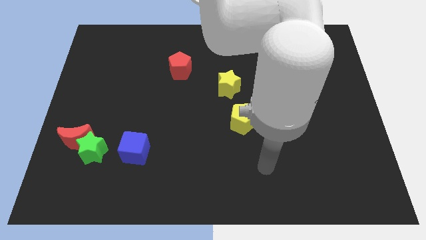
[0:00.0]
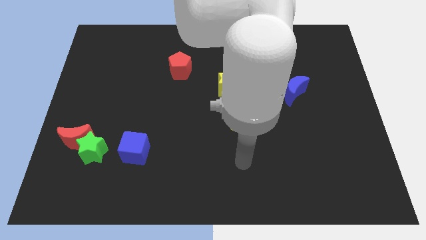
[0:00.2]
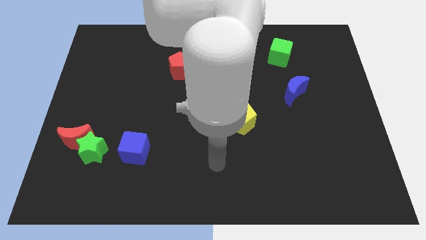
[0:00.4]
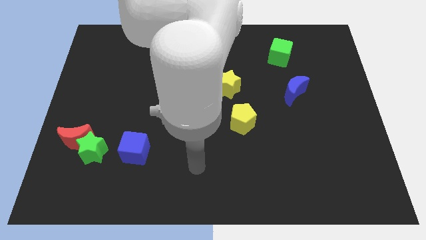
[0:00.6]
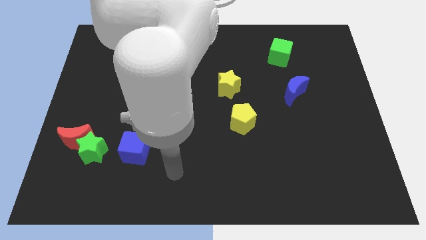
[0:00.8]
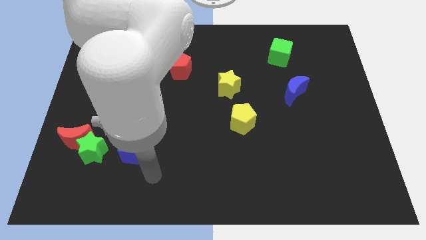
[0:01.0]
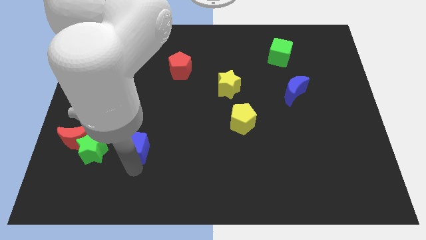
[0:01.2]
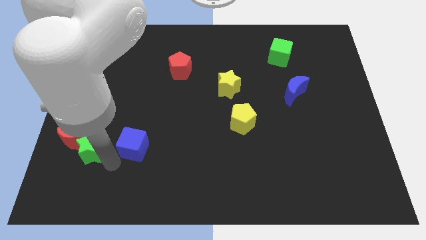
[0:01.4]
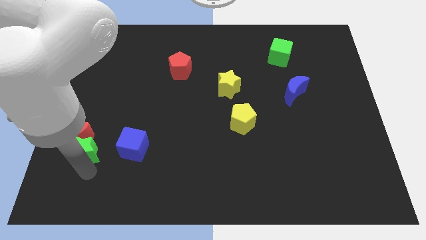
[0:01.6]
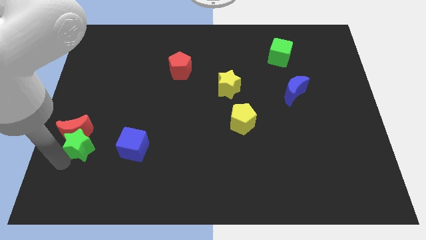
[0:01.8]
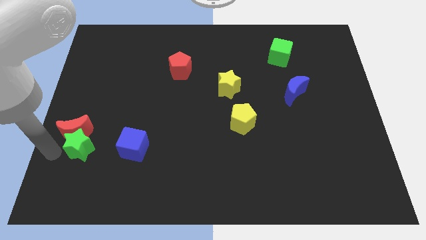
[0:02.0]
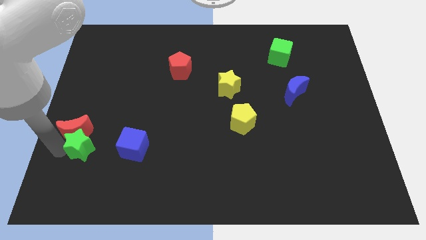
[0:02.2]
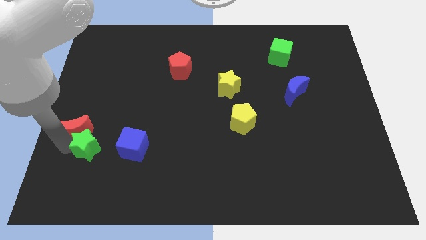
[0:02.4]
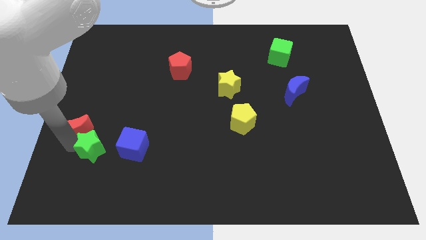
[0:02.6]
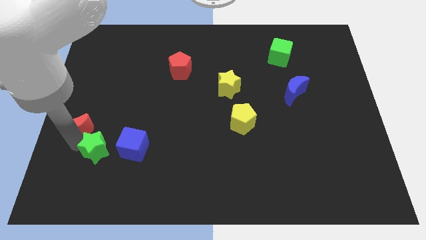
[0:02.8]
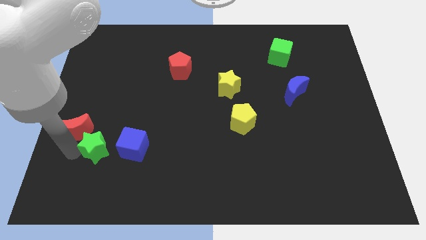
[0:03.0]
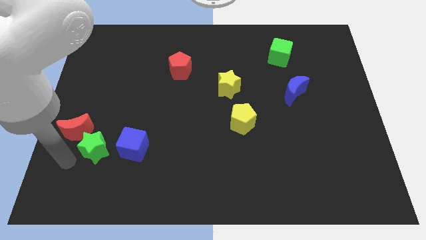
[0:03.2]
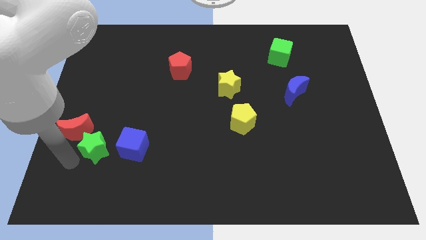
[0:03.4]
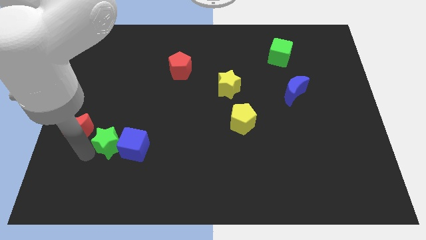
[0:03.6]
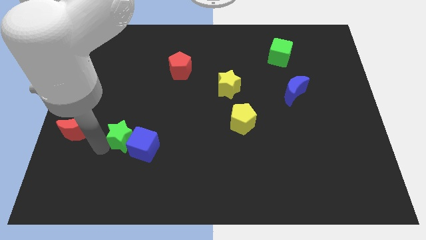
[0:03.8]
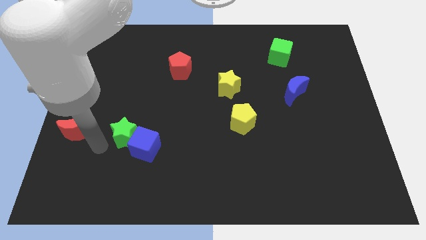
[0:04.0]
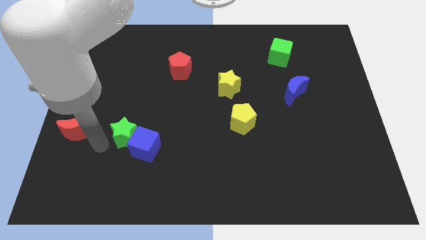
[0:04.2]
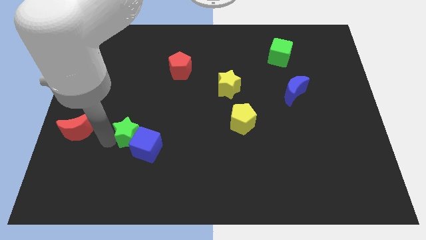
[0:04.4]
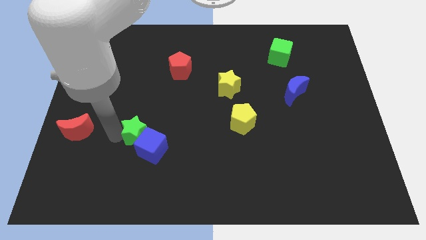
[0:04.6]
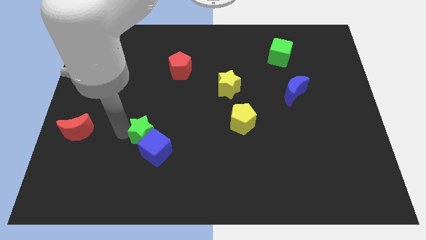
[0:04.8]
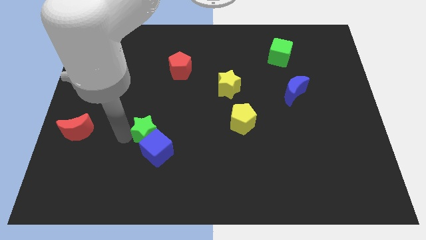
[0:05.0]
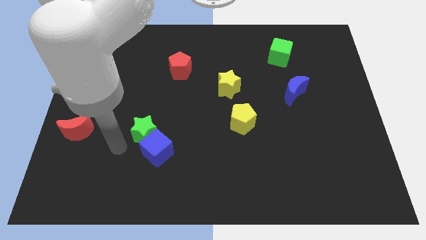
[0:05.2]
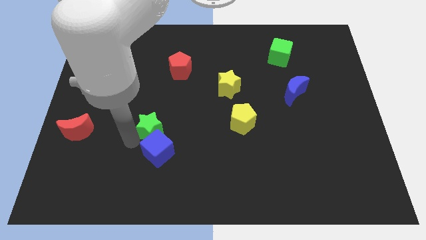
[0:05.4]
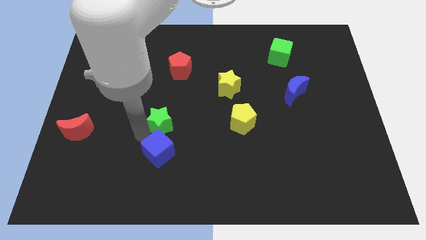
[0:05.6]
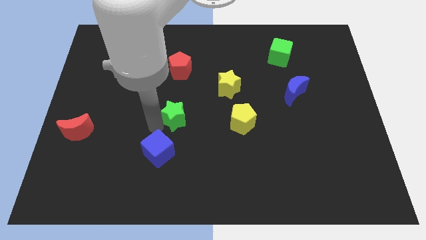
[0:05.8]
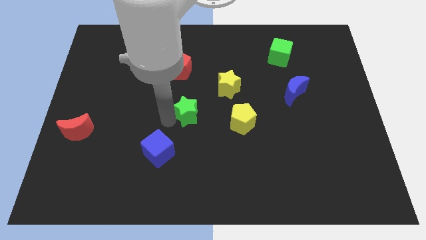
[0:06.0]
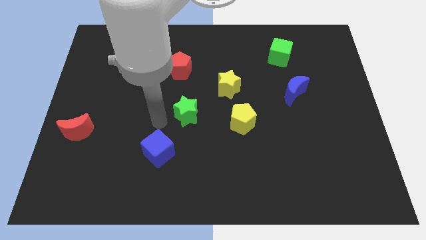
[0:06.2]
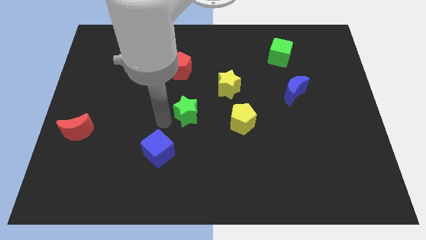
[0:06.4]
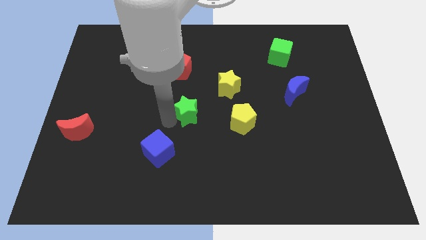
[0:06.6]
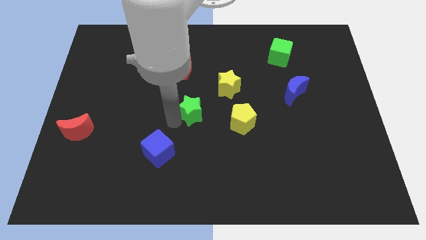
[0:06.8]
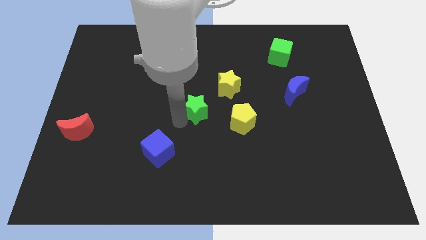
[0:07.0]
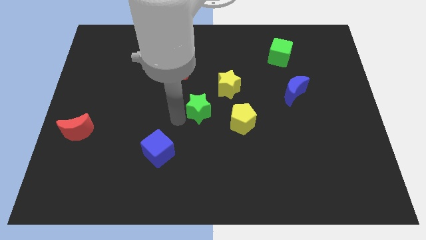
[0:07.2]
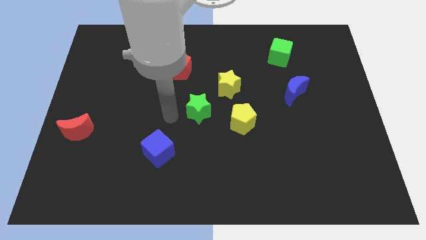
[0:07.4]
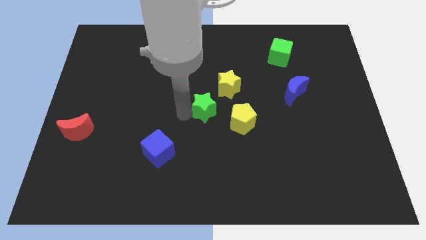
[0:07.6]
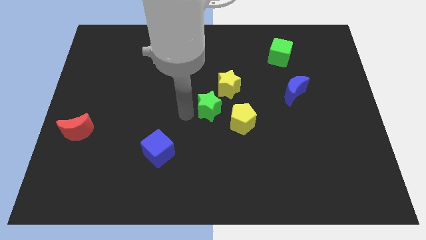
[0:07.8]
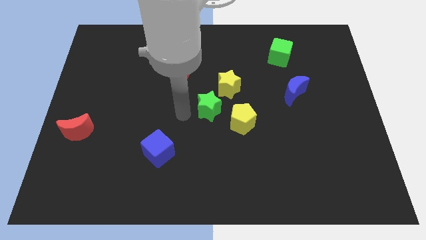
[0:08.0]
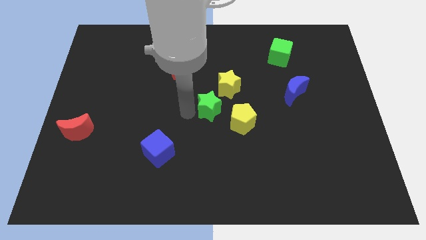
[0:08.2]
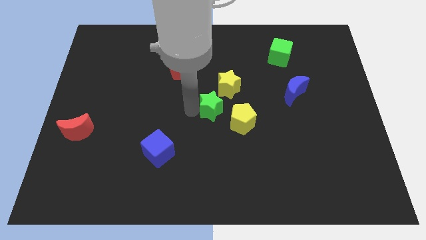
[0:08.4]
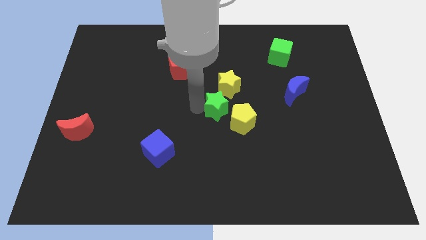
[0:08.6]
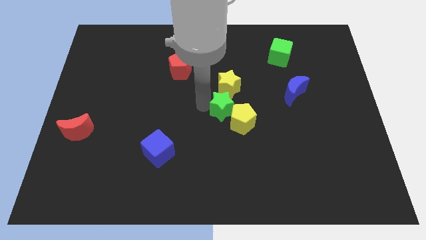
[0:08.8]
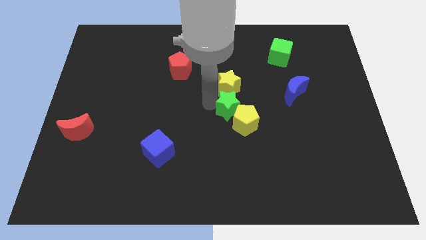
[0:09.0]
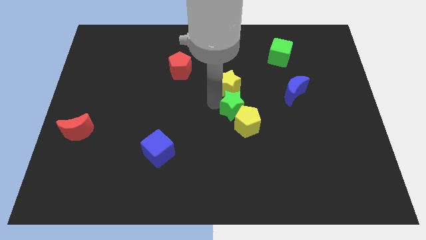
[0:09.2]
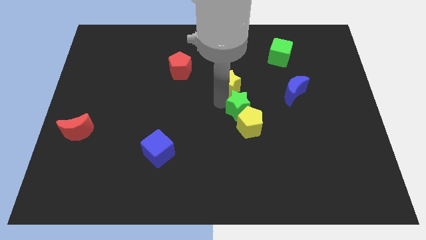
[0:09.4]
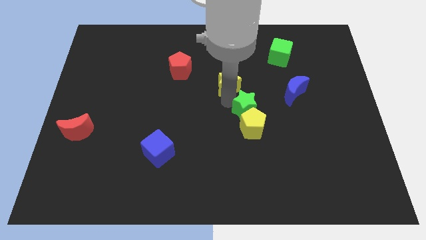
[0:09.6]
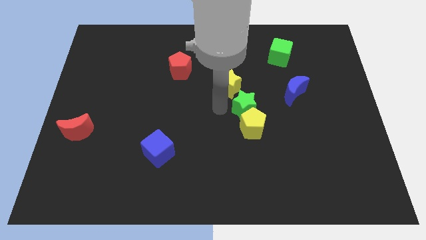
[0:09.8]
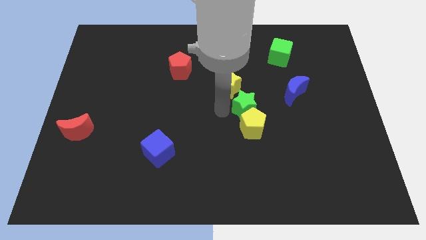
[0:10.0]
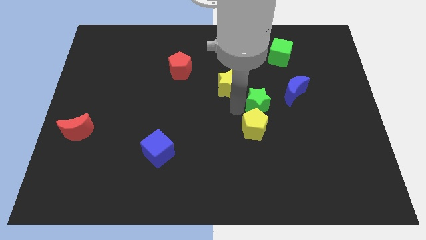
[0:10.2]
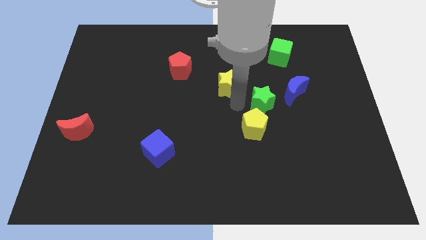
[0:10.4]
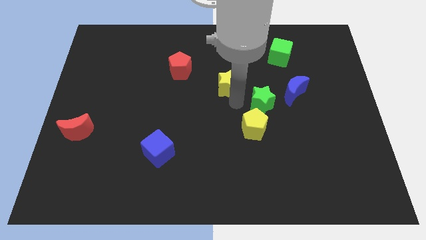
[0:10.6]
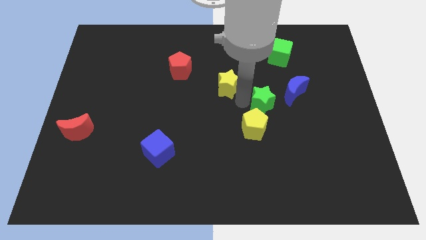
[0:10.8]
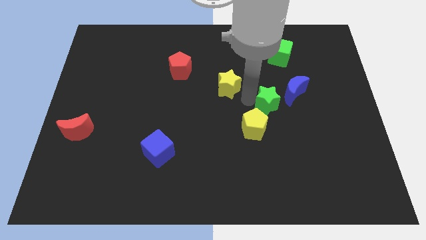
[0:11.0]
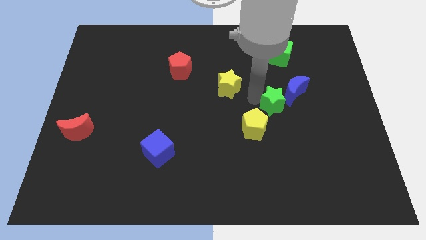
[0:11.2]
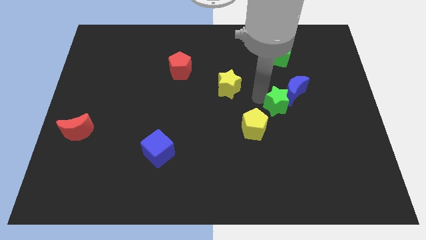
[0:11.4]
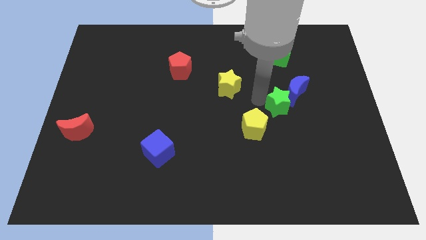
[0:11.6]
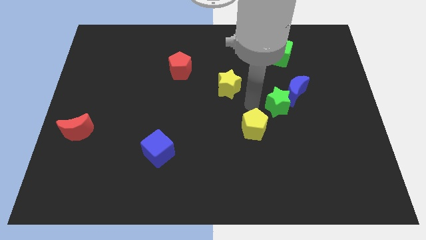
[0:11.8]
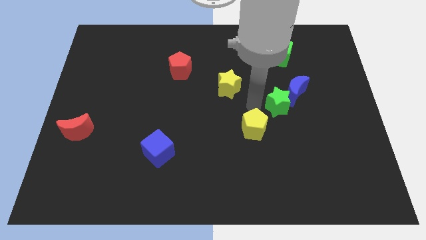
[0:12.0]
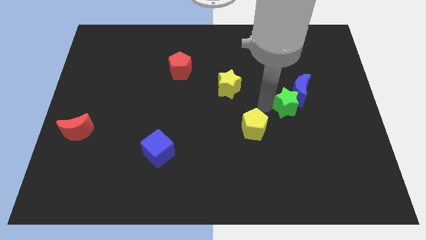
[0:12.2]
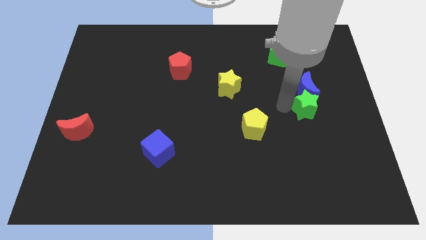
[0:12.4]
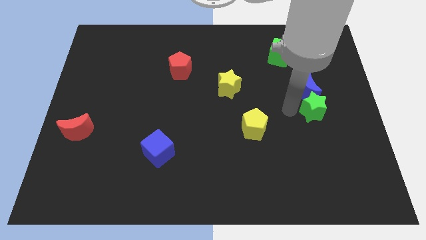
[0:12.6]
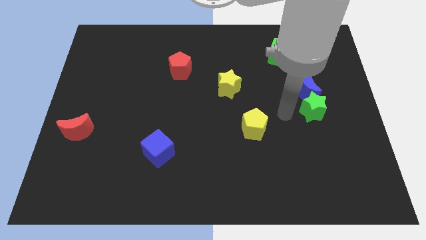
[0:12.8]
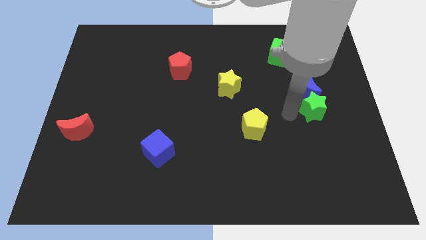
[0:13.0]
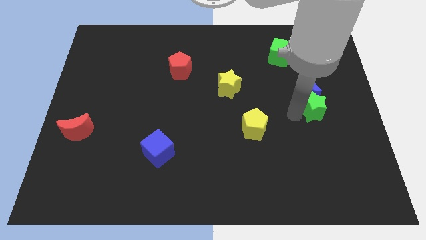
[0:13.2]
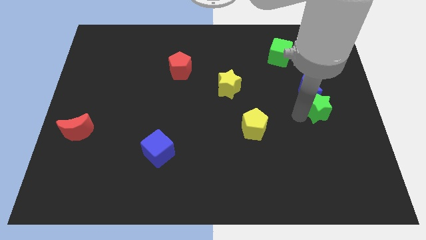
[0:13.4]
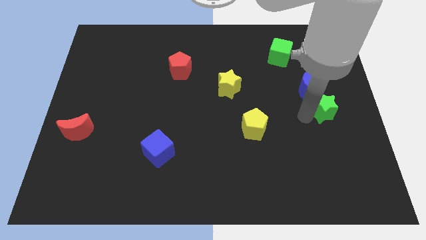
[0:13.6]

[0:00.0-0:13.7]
move the green star to the center right
